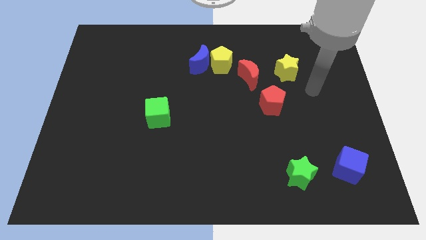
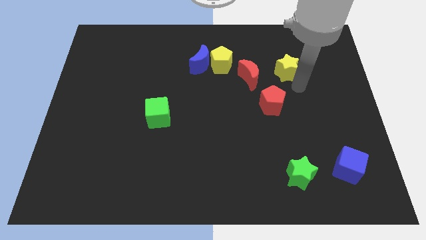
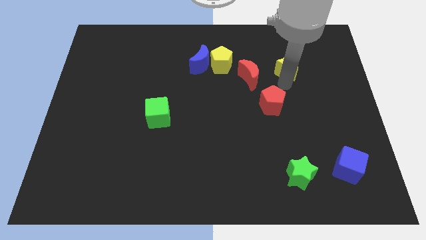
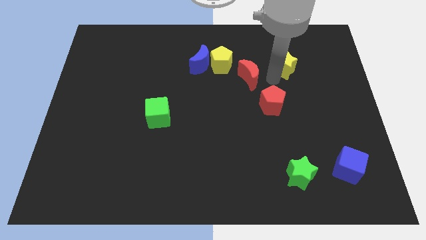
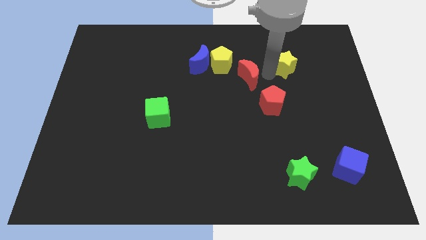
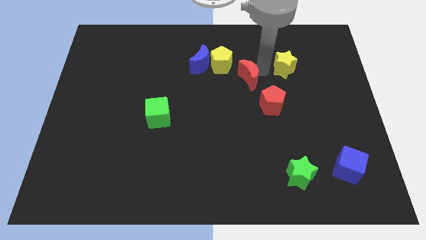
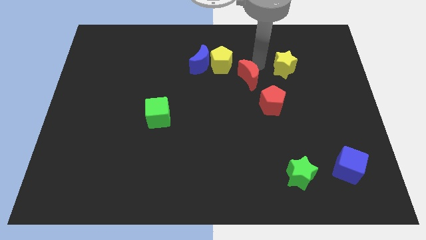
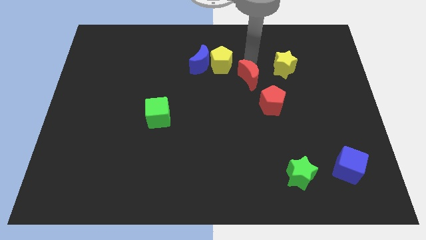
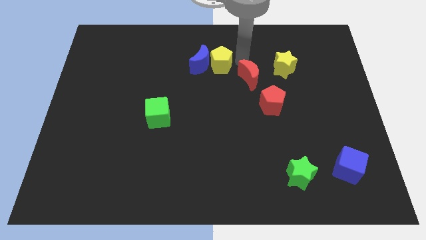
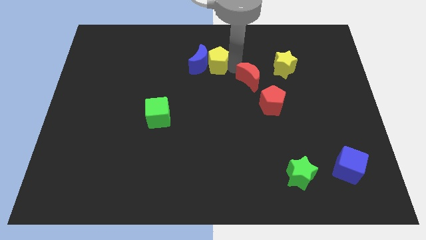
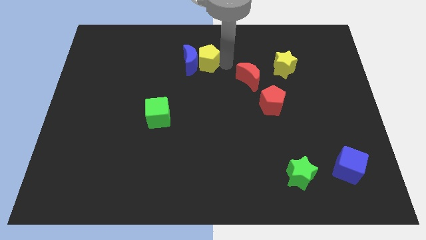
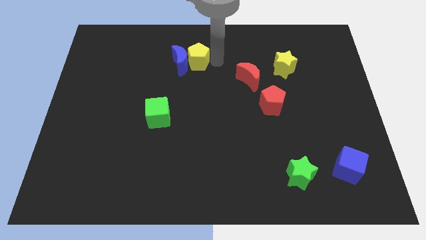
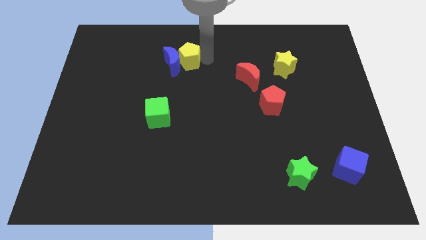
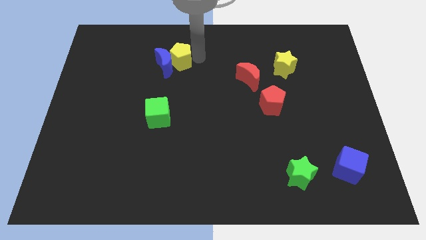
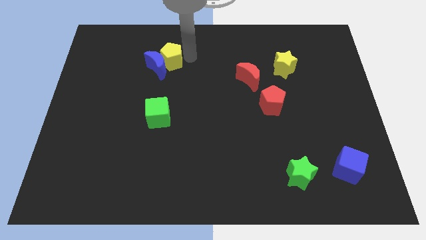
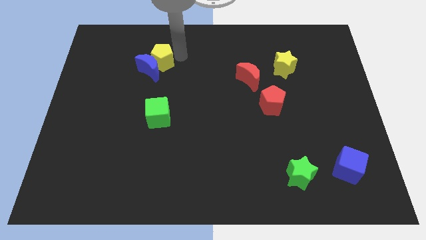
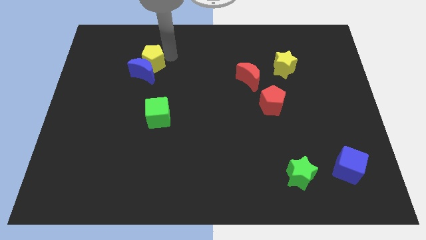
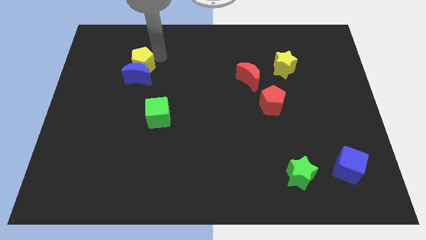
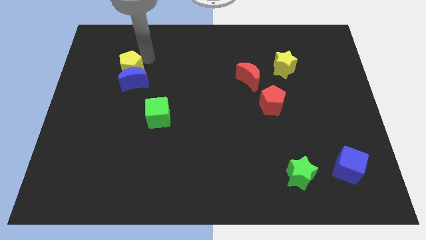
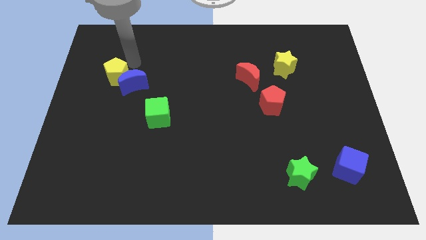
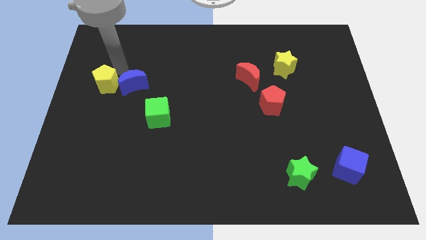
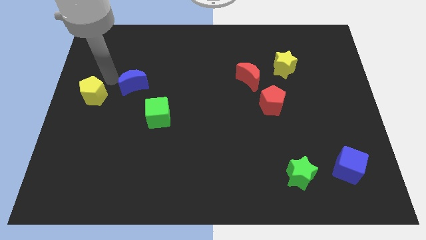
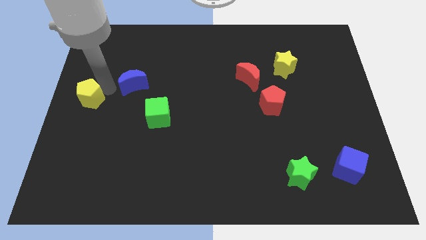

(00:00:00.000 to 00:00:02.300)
move the blue moon away from the yellow pentagon

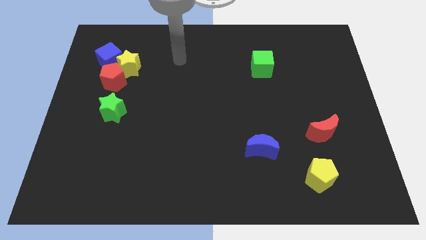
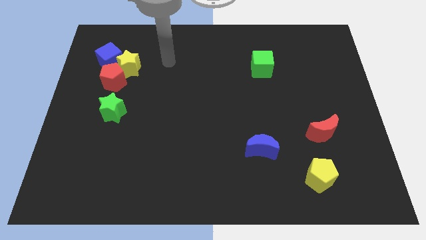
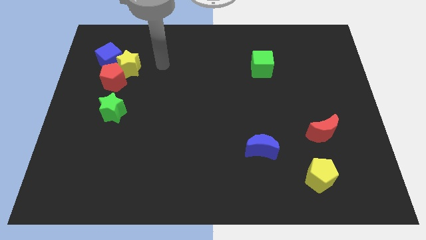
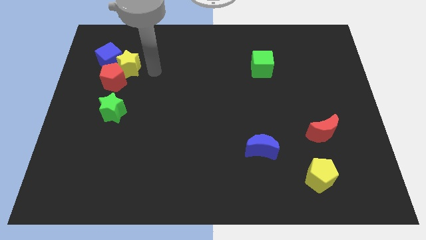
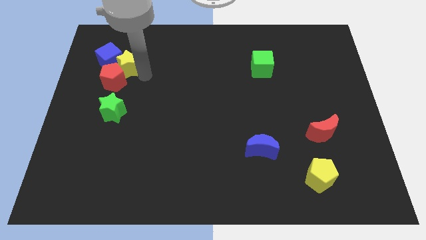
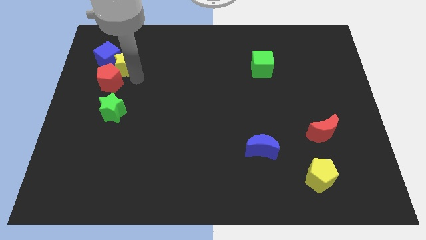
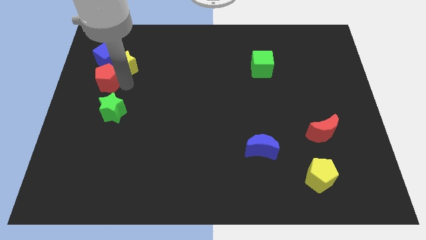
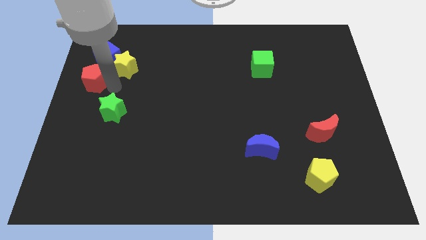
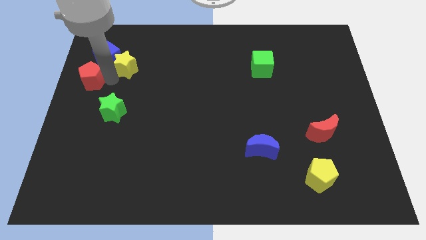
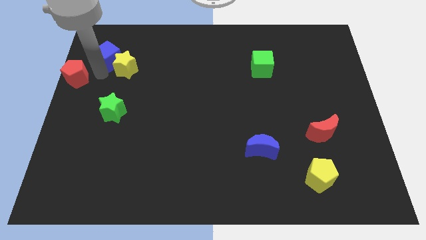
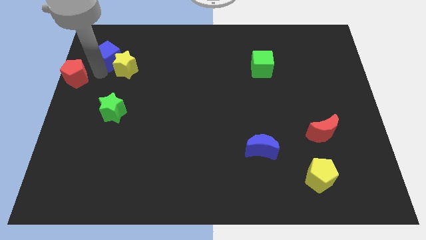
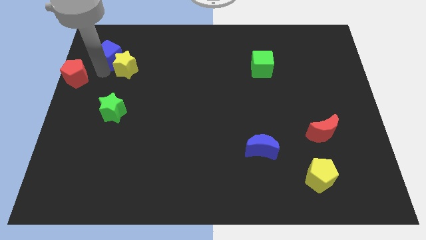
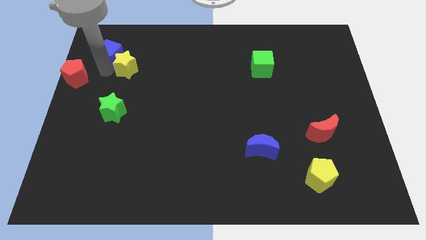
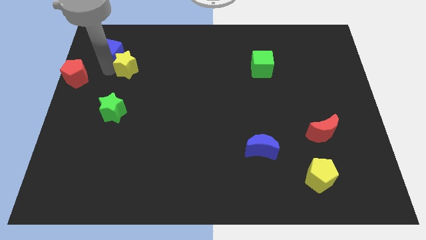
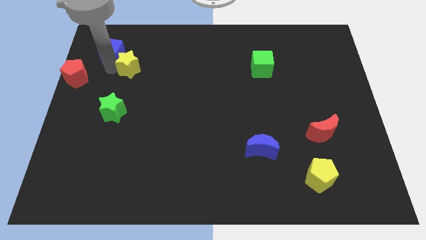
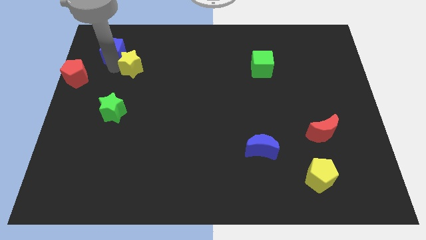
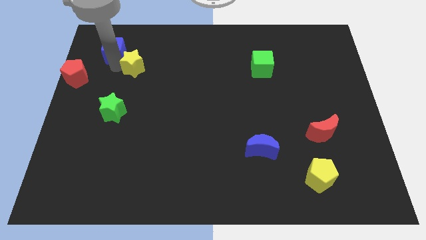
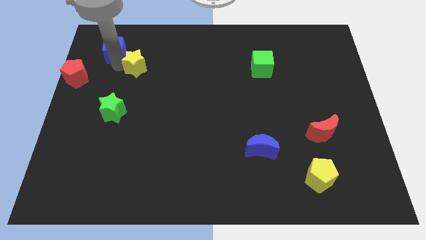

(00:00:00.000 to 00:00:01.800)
move the yellow star away from the red pentagon and blue cube

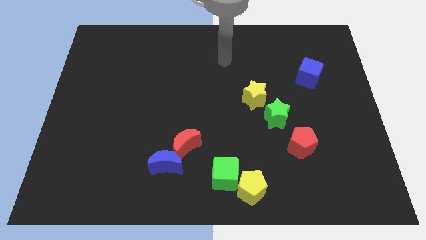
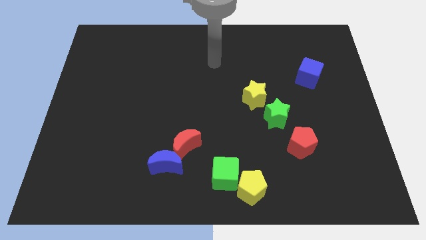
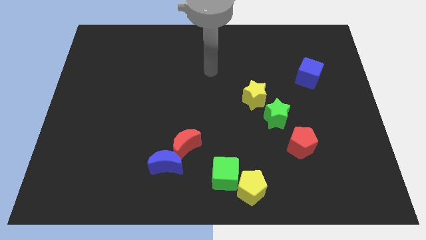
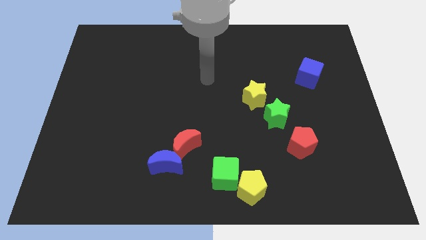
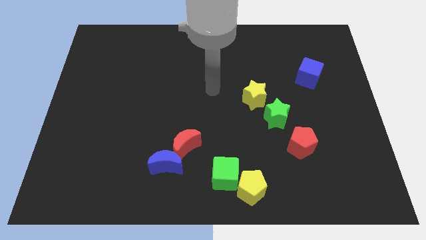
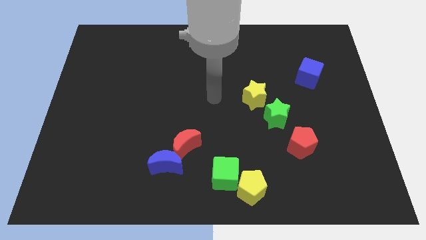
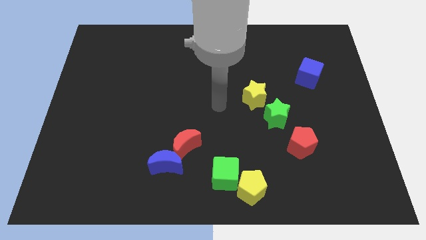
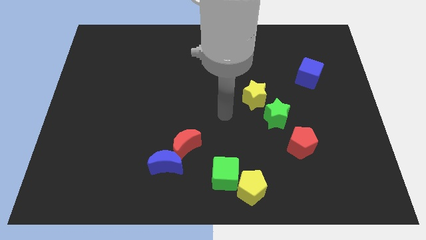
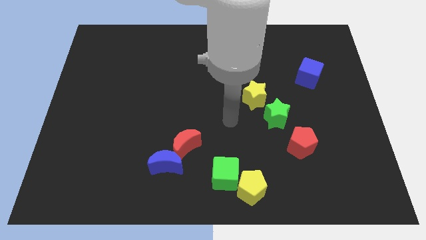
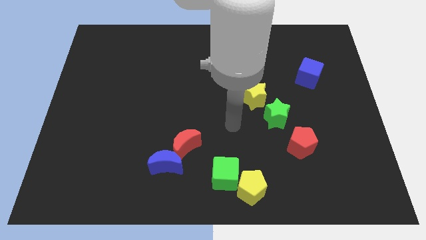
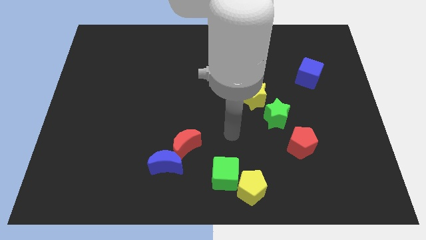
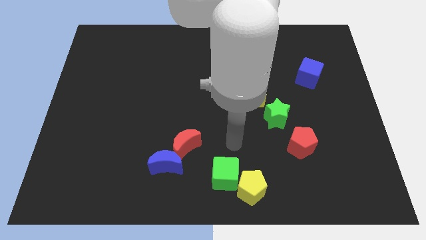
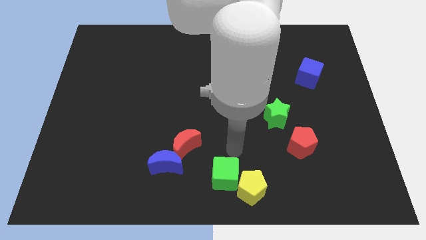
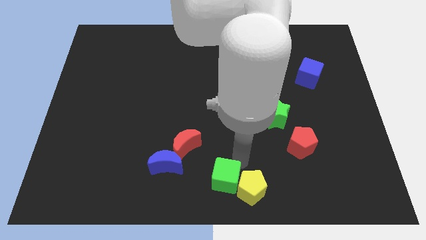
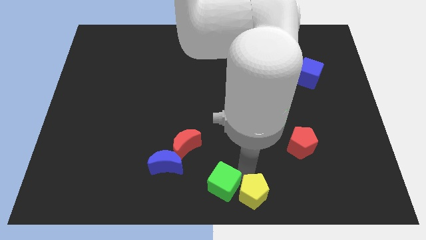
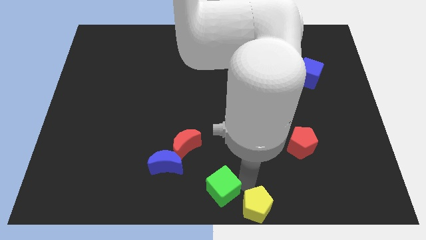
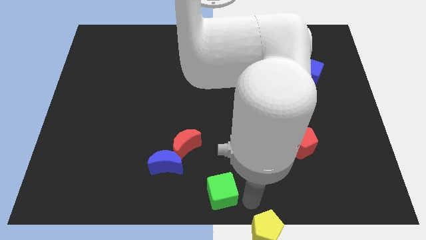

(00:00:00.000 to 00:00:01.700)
pull the green cube apart from the yellow pentagon

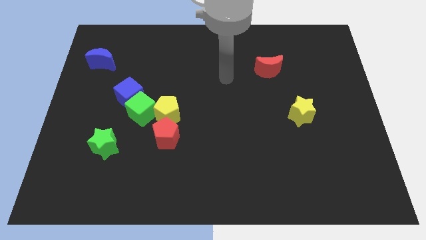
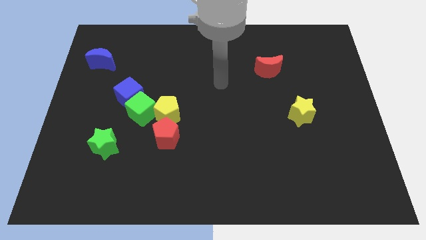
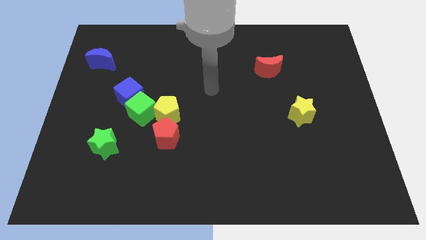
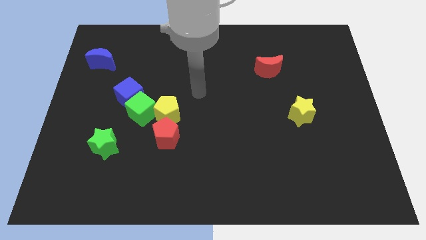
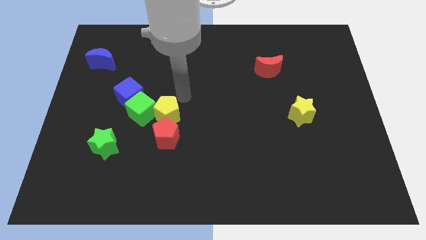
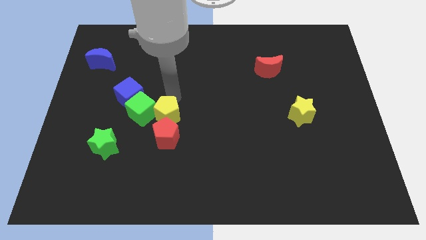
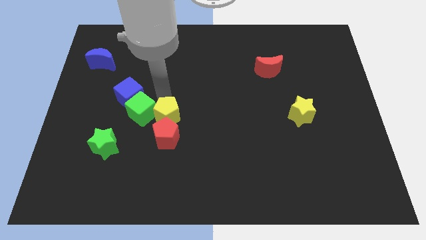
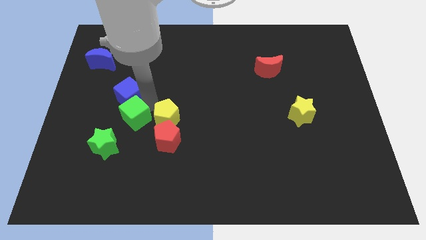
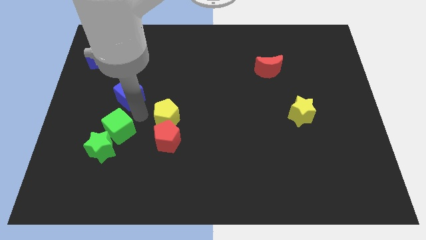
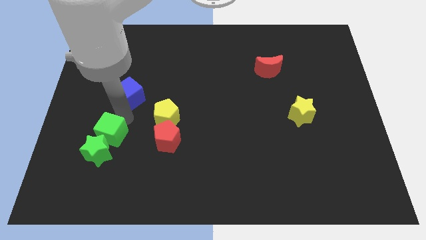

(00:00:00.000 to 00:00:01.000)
pull the blue cube apart from the green cube

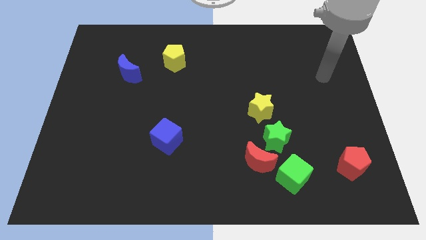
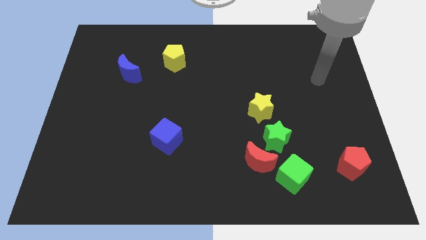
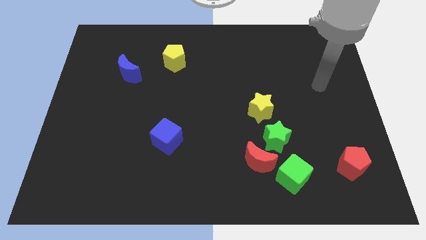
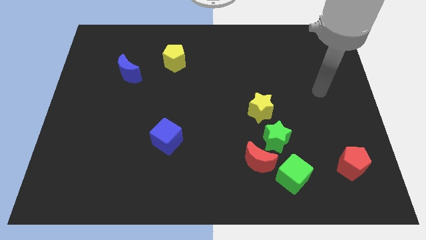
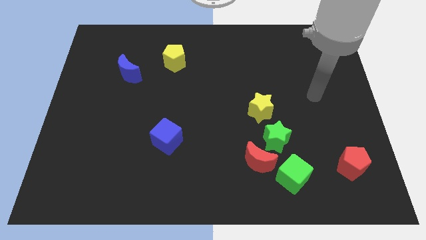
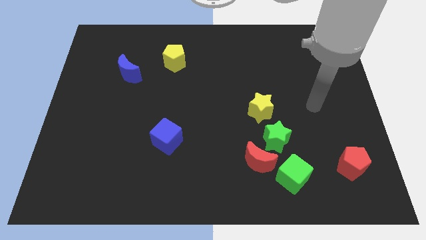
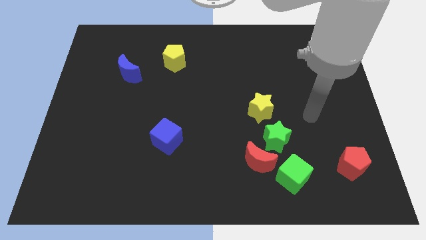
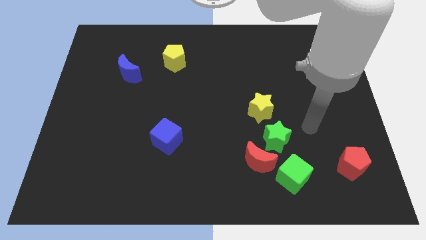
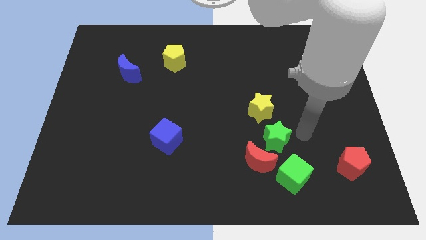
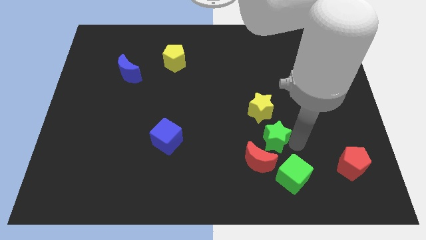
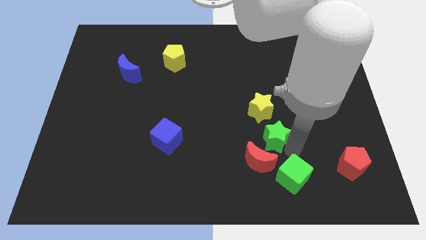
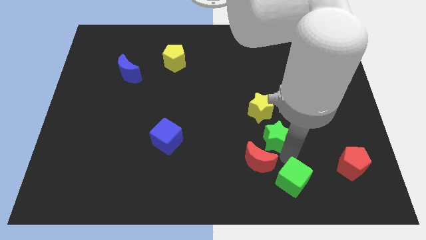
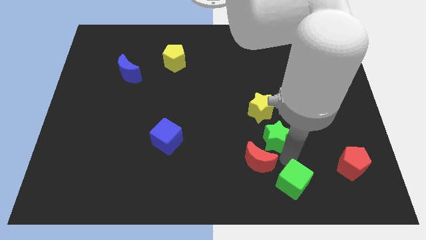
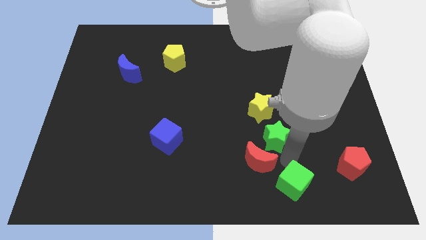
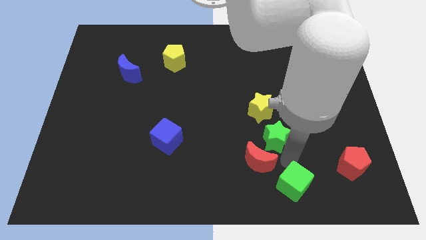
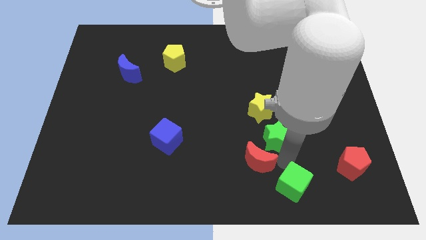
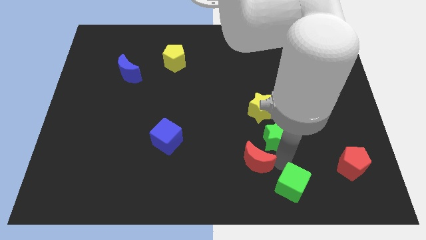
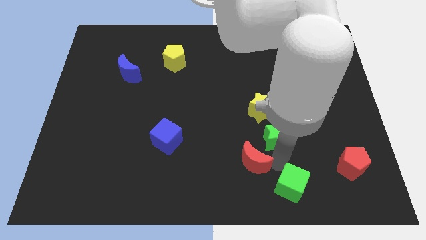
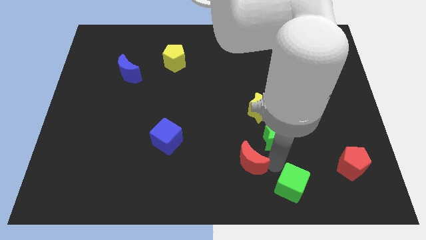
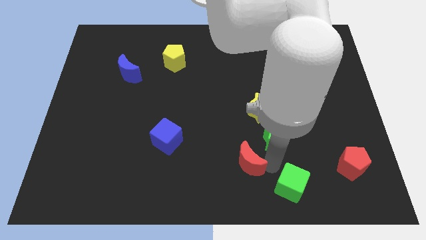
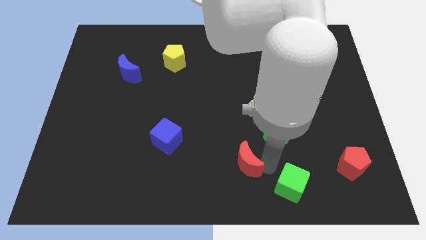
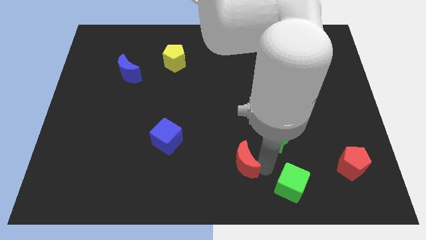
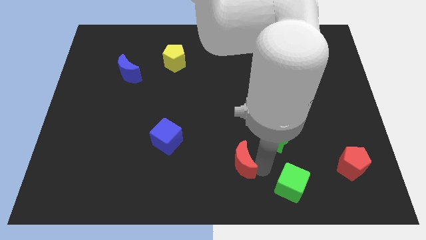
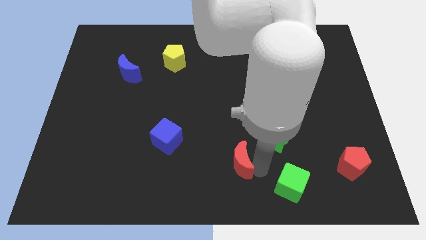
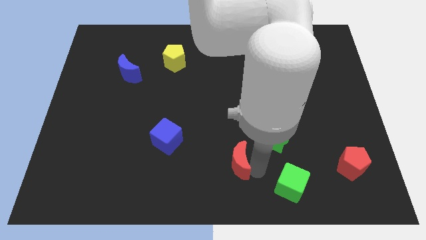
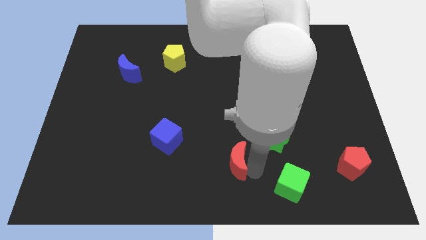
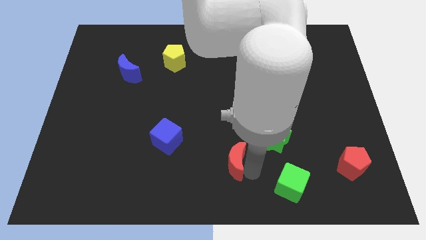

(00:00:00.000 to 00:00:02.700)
move the red moon away from the green star and green cube
